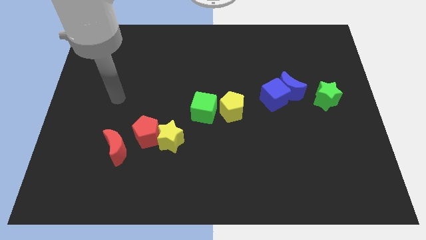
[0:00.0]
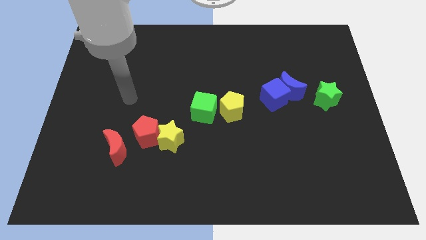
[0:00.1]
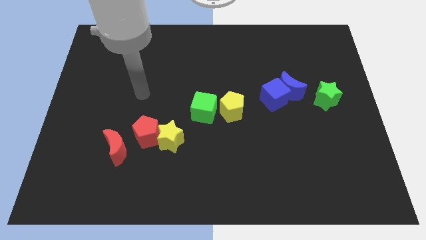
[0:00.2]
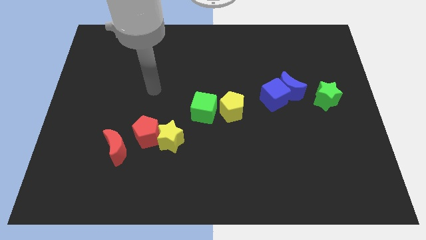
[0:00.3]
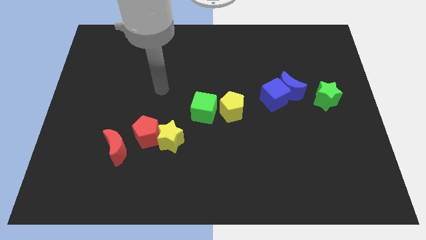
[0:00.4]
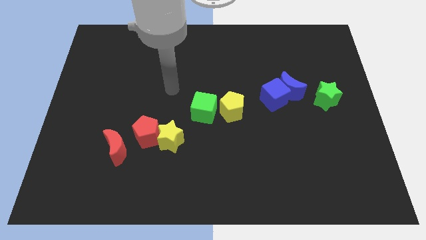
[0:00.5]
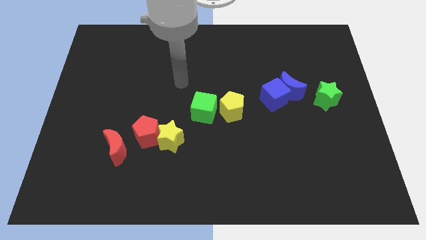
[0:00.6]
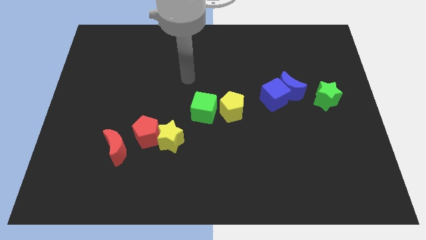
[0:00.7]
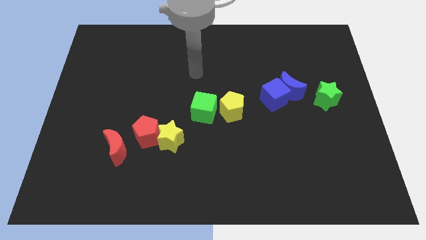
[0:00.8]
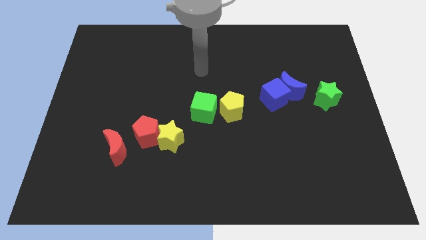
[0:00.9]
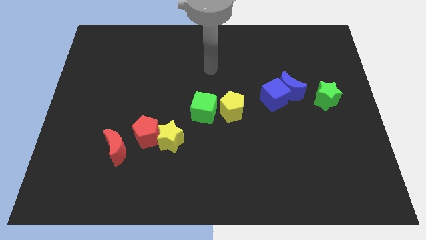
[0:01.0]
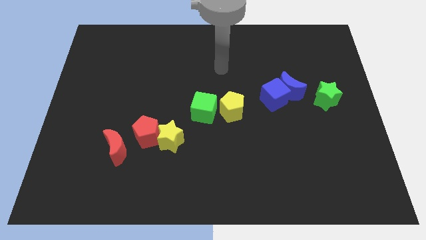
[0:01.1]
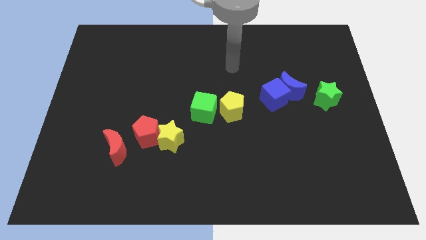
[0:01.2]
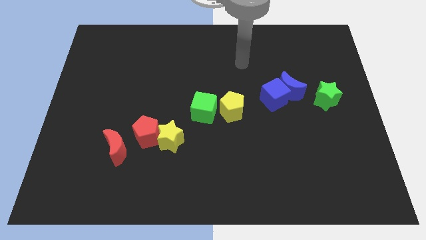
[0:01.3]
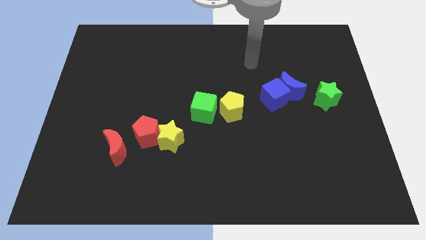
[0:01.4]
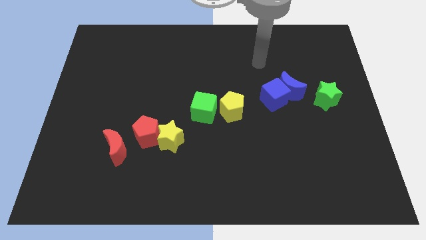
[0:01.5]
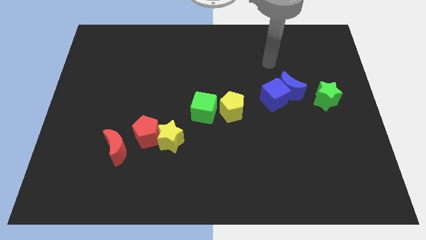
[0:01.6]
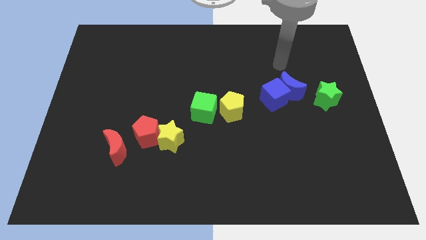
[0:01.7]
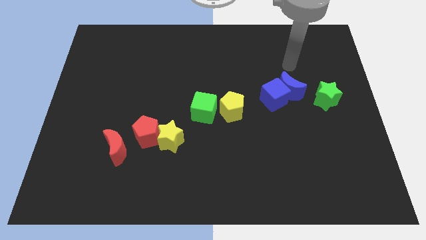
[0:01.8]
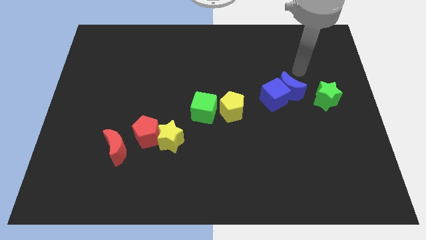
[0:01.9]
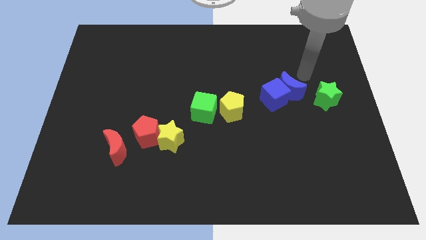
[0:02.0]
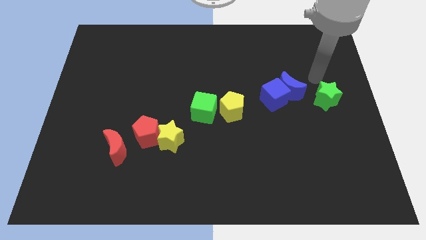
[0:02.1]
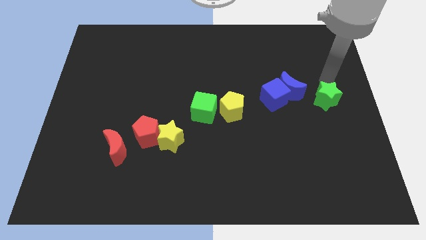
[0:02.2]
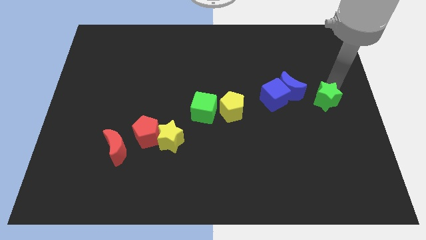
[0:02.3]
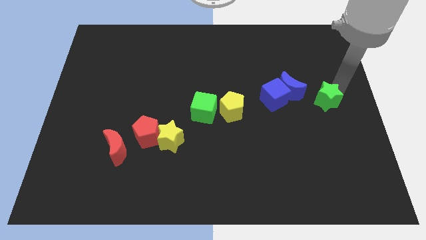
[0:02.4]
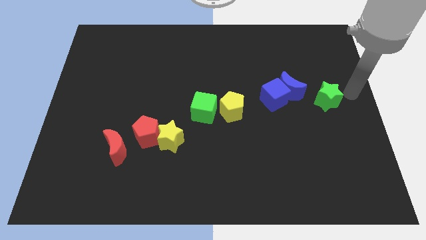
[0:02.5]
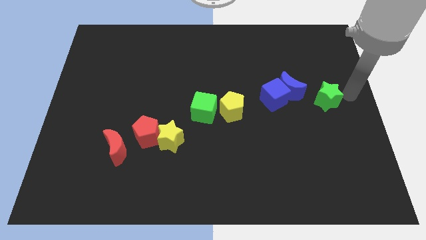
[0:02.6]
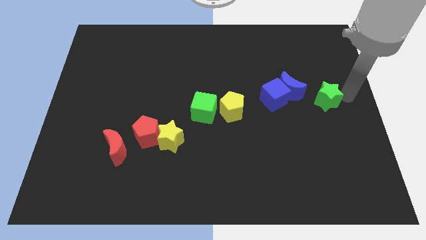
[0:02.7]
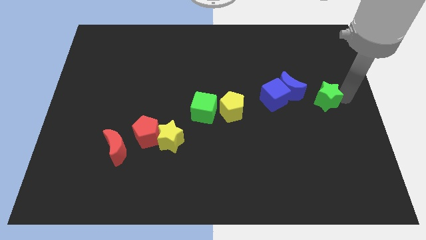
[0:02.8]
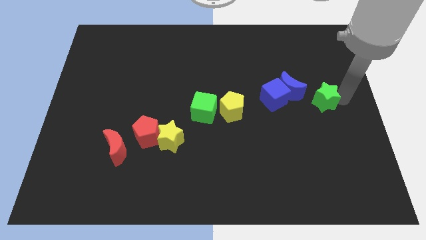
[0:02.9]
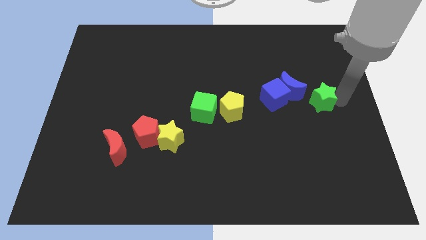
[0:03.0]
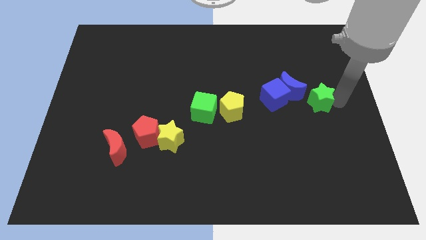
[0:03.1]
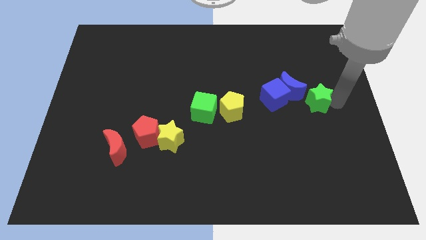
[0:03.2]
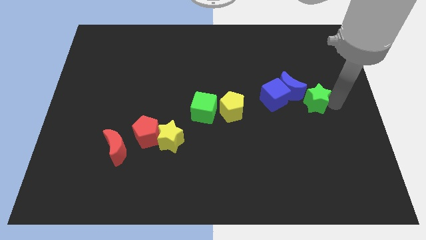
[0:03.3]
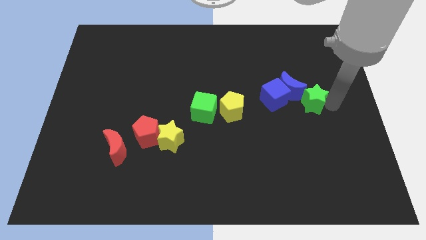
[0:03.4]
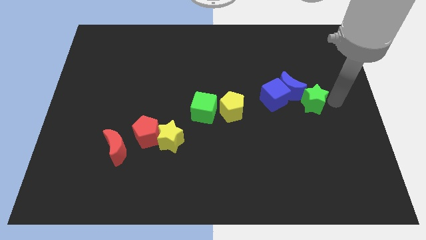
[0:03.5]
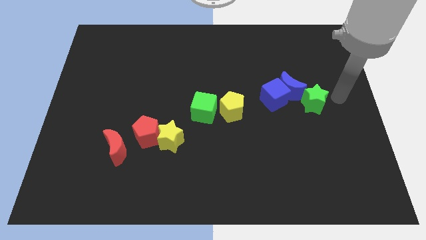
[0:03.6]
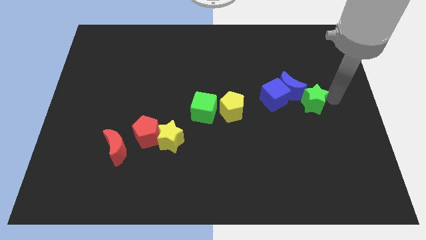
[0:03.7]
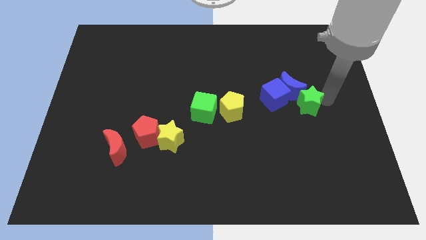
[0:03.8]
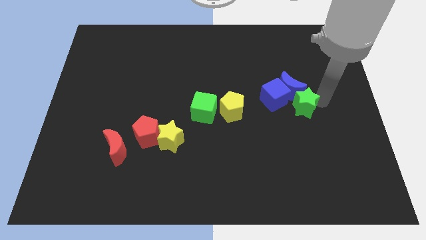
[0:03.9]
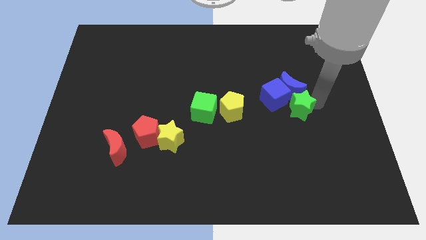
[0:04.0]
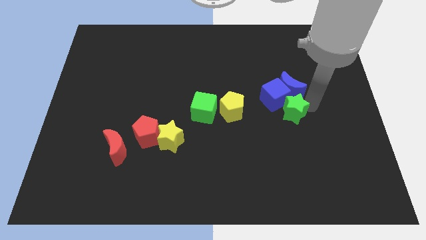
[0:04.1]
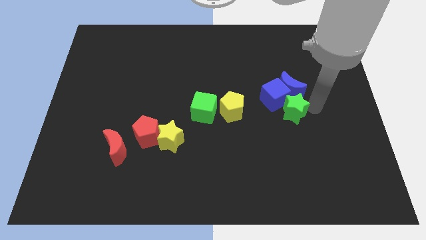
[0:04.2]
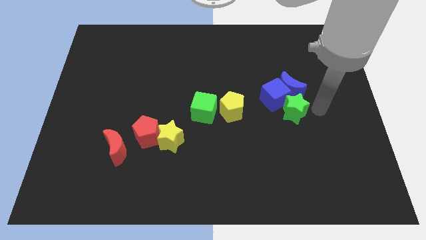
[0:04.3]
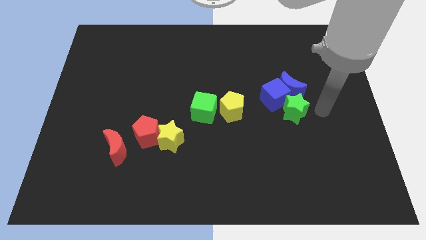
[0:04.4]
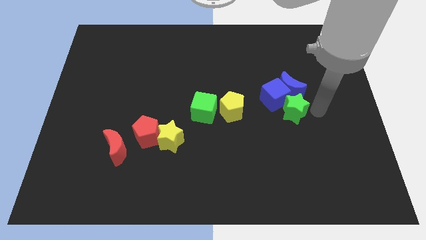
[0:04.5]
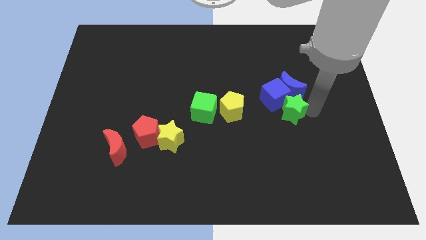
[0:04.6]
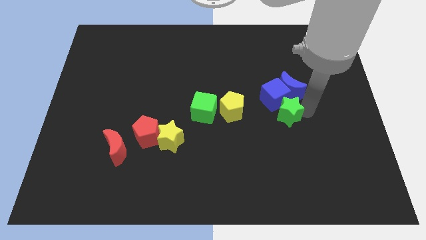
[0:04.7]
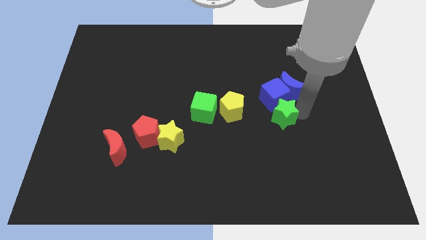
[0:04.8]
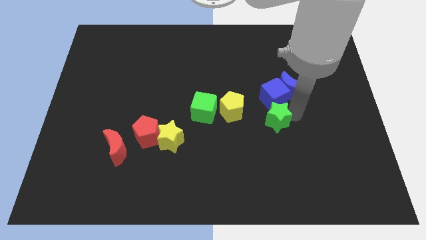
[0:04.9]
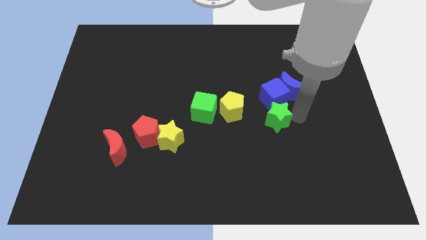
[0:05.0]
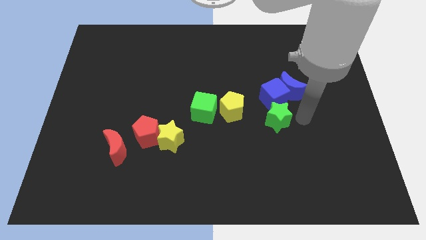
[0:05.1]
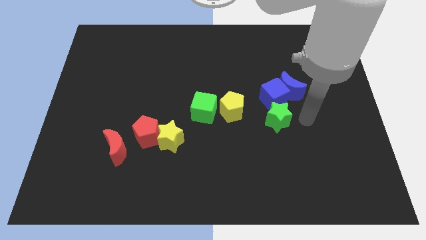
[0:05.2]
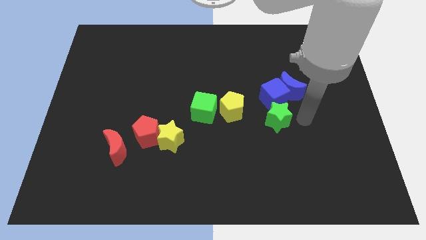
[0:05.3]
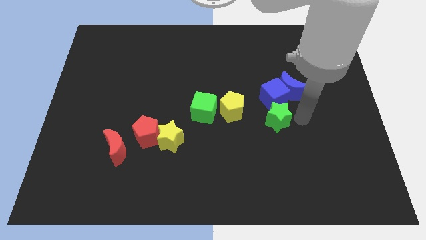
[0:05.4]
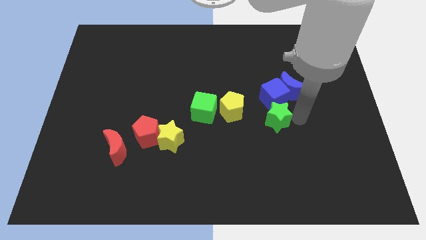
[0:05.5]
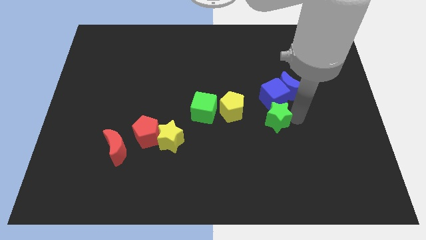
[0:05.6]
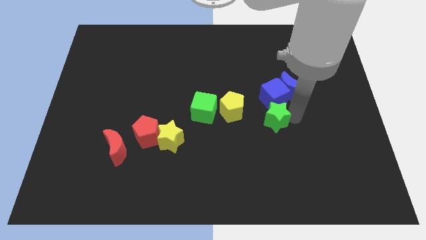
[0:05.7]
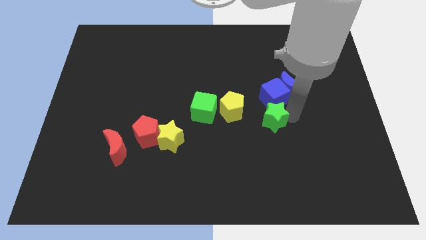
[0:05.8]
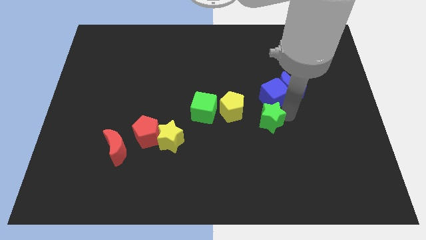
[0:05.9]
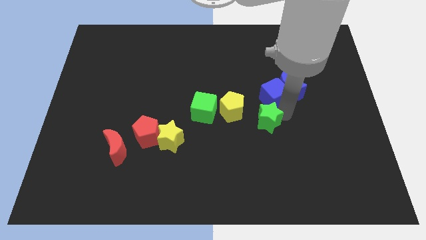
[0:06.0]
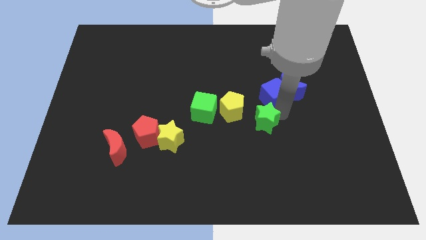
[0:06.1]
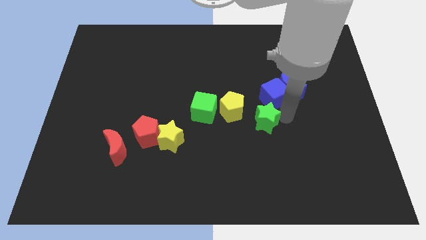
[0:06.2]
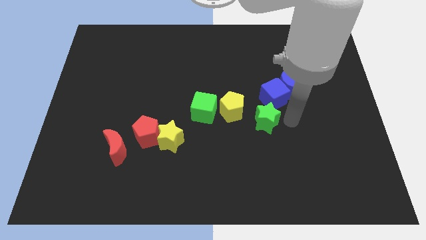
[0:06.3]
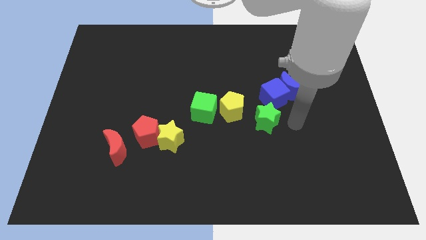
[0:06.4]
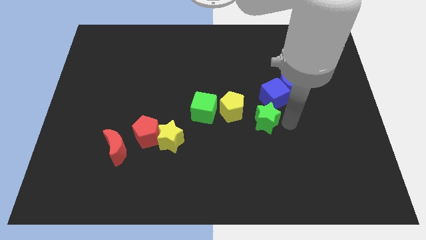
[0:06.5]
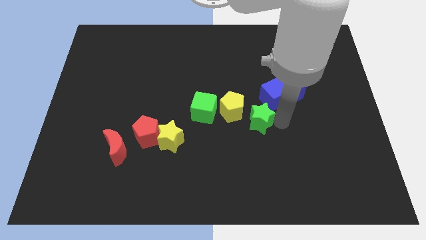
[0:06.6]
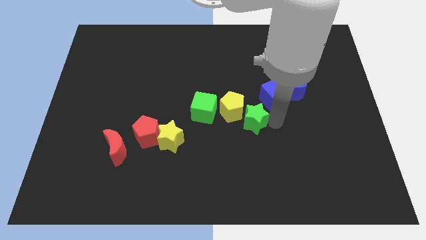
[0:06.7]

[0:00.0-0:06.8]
put the green star to the yellow pentagon
